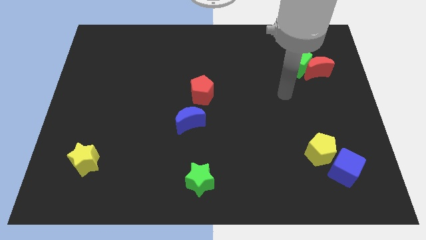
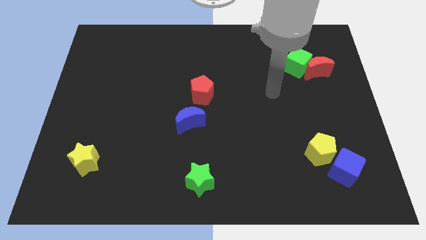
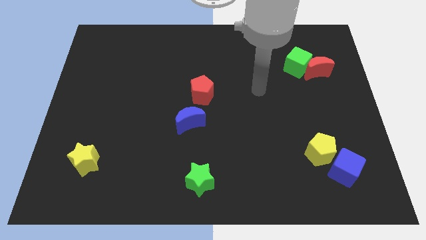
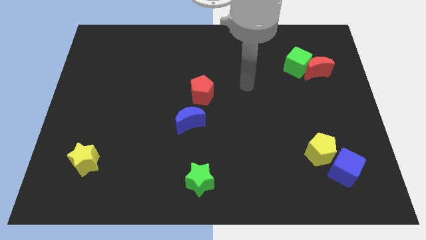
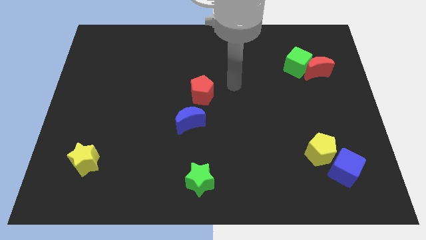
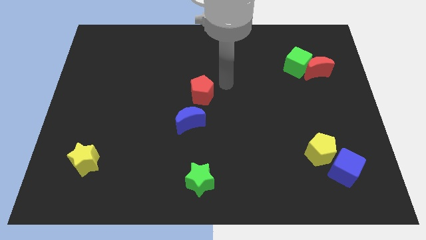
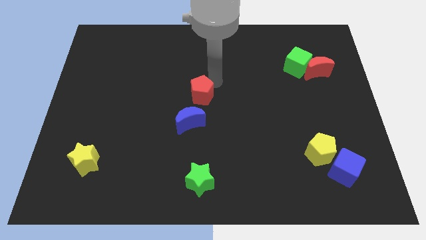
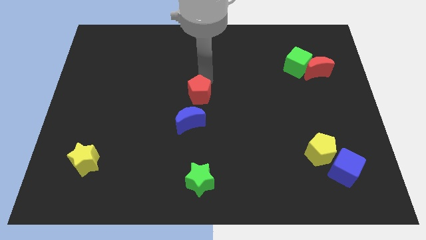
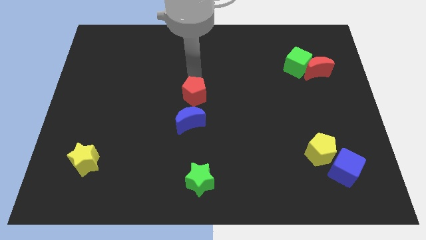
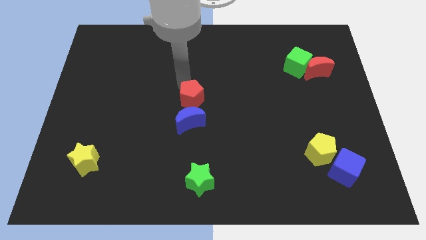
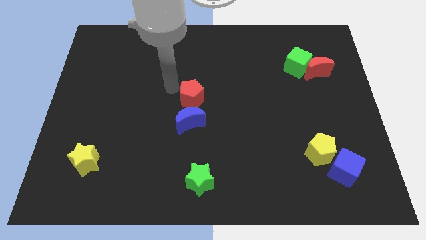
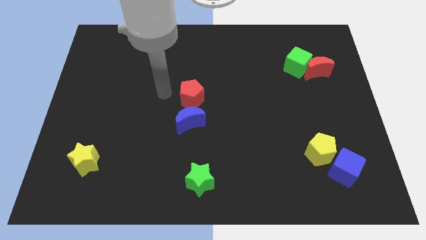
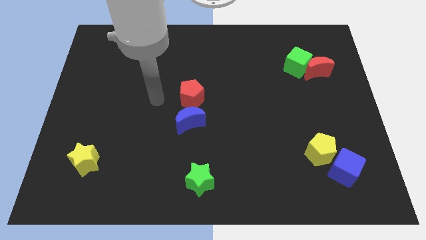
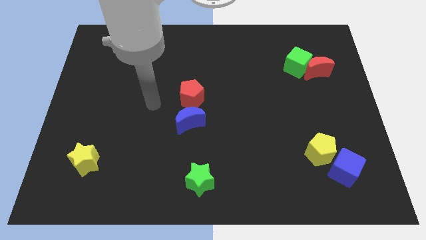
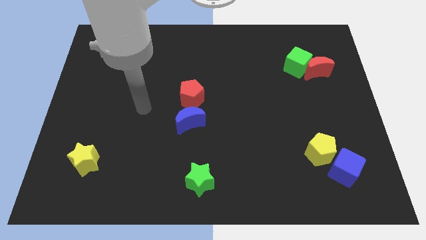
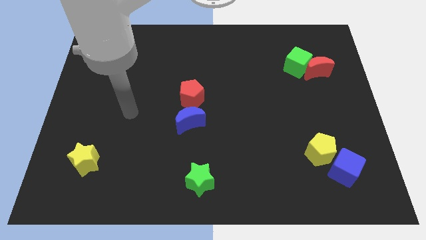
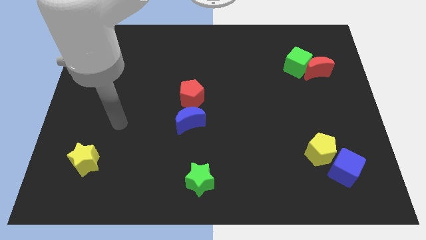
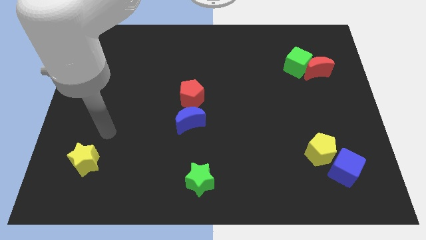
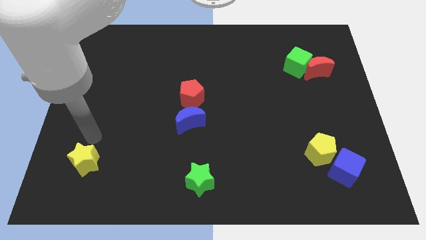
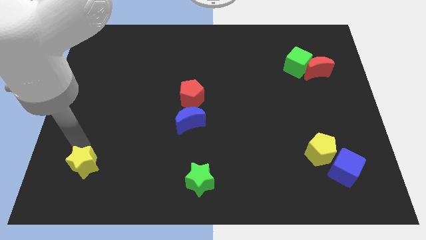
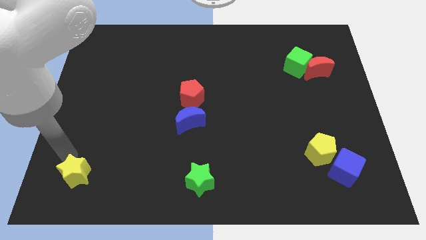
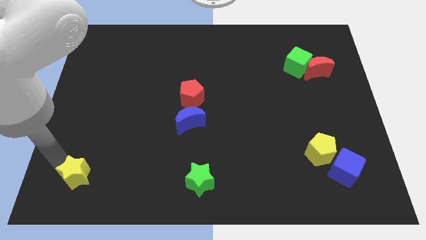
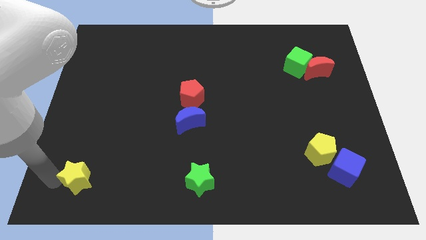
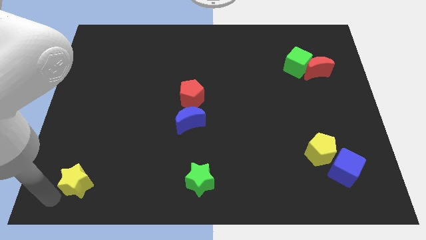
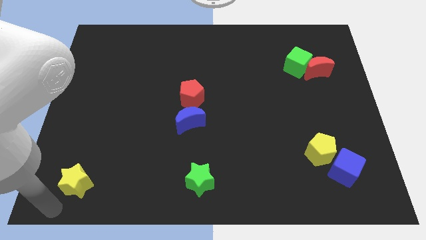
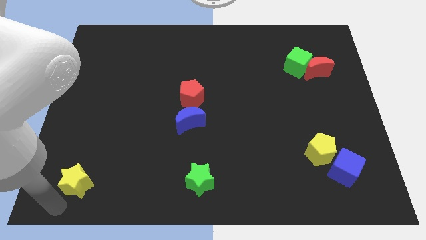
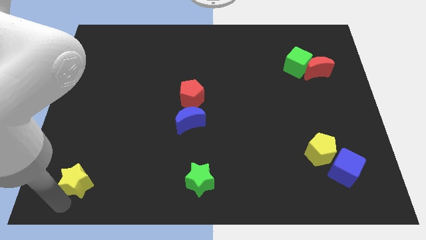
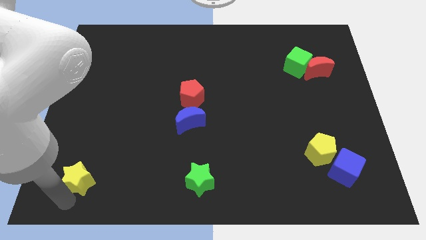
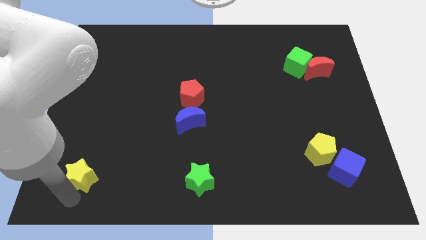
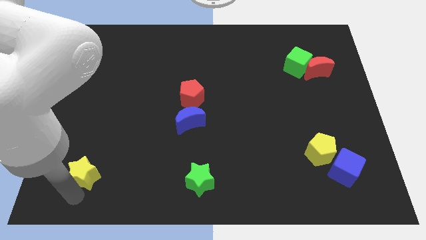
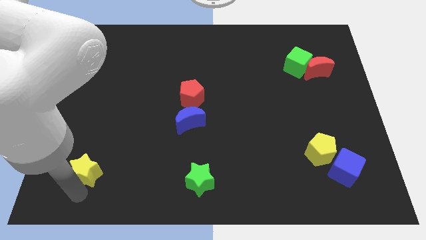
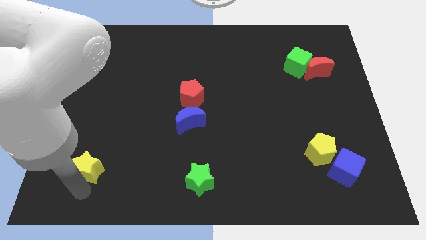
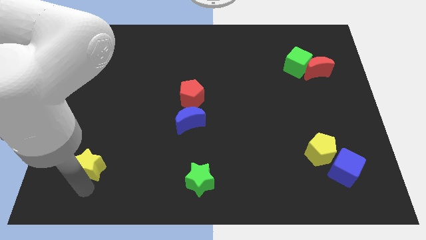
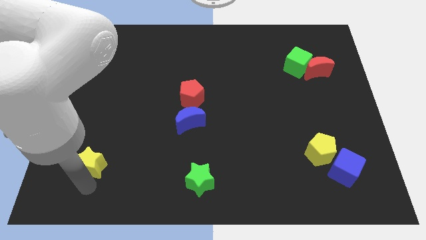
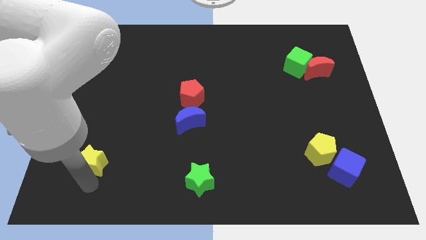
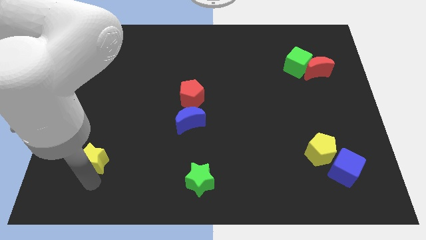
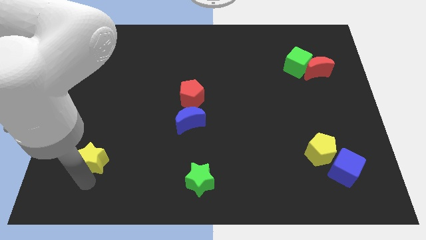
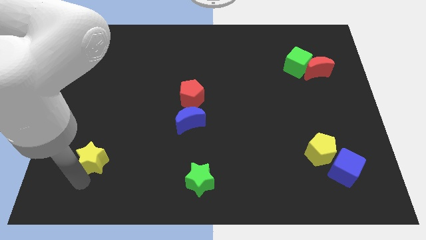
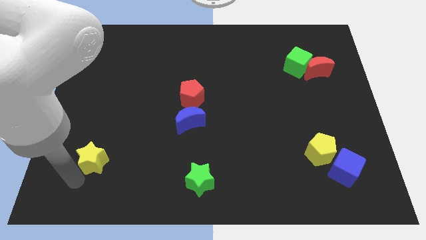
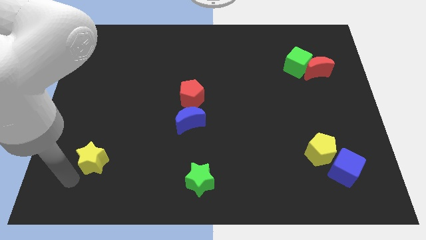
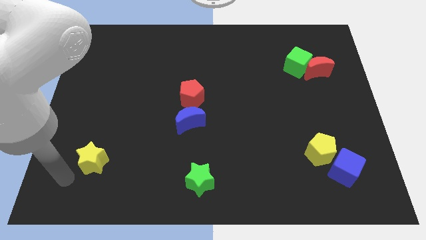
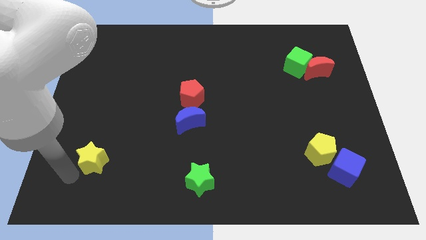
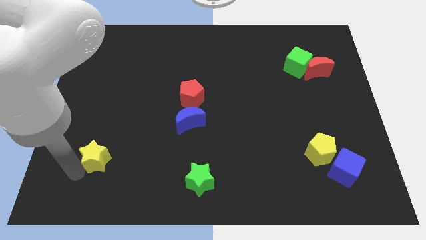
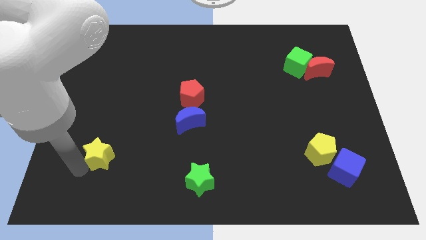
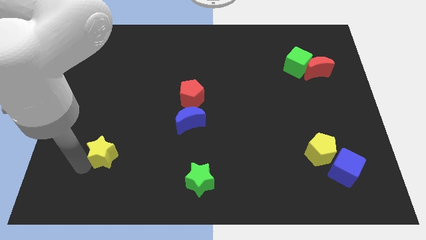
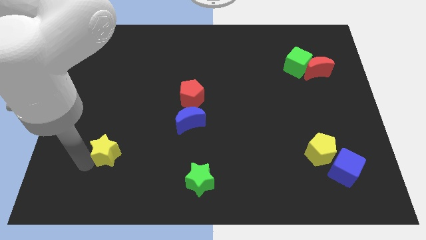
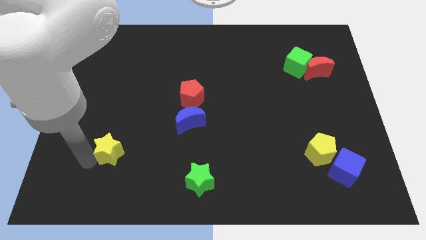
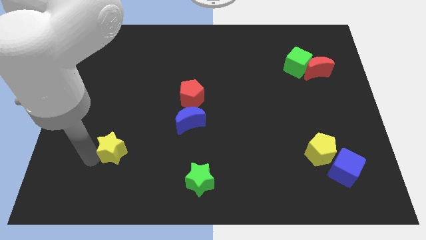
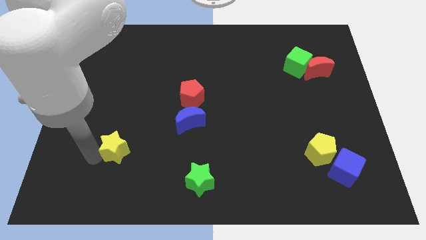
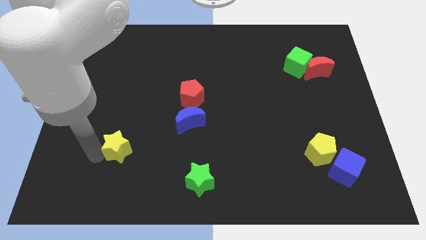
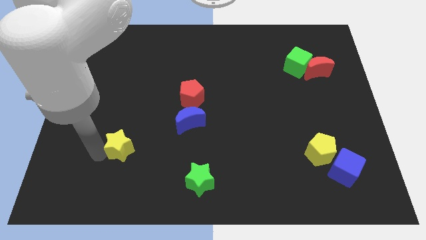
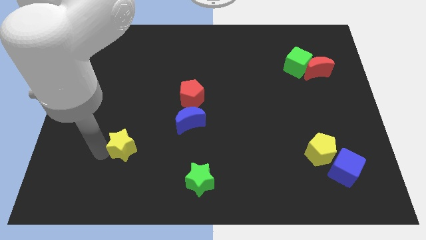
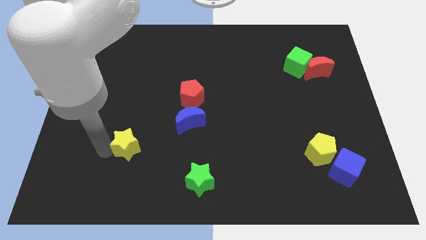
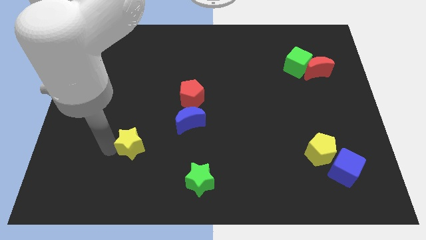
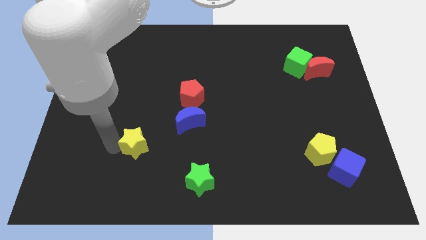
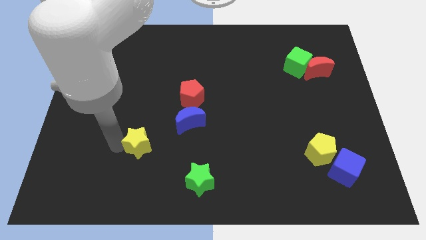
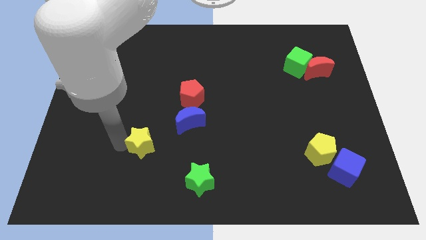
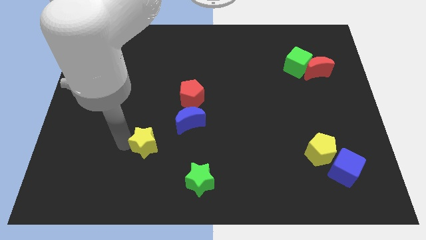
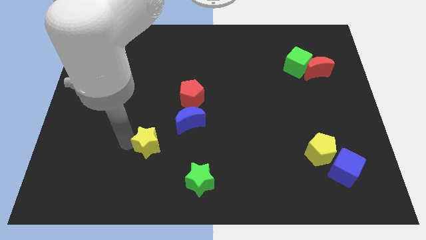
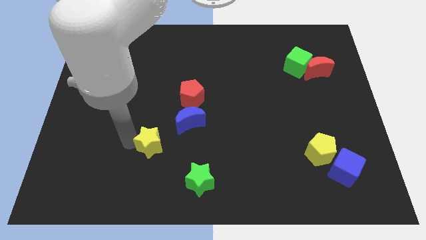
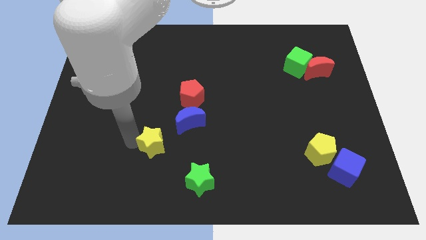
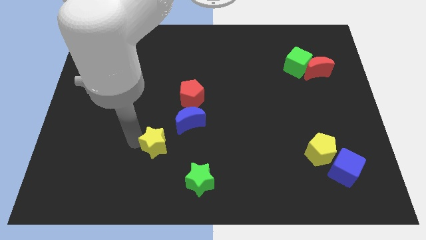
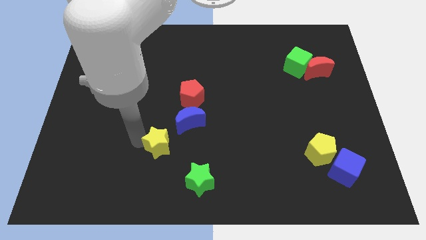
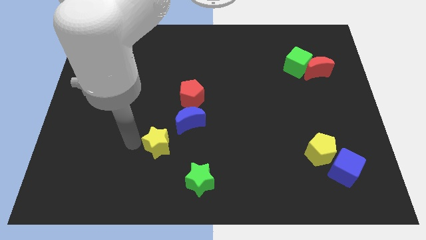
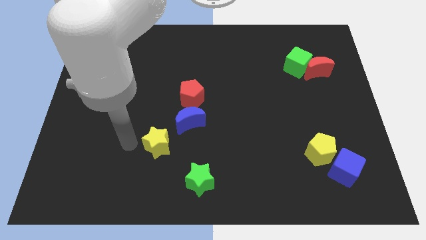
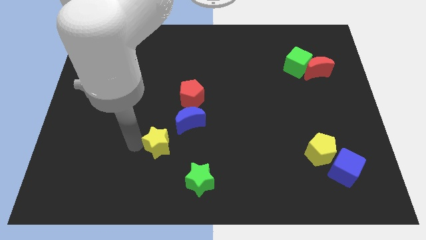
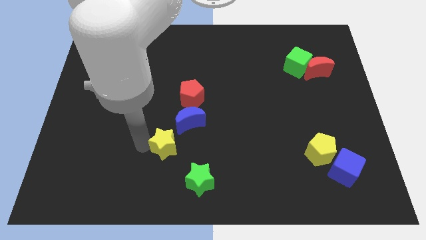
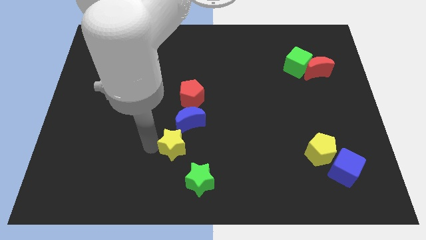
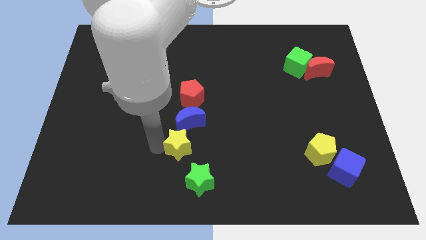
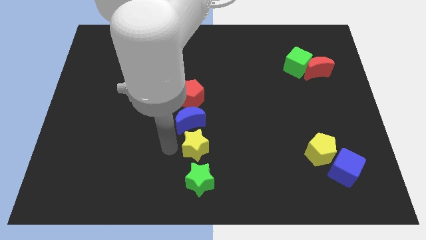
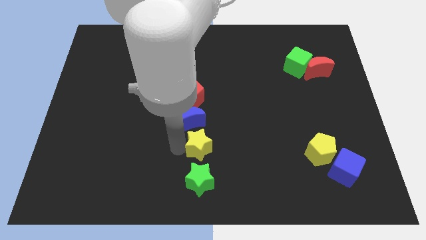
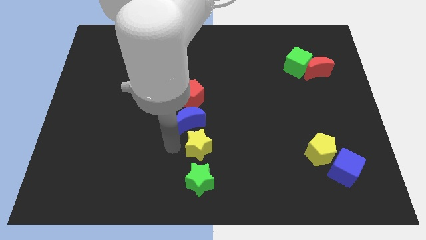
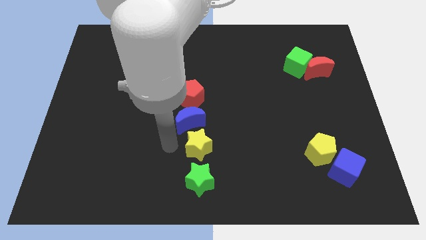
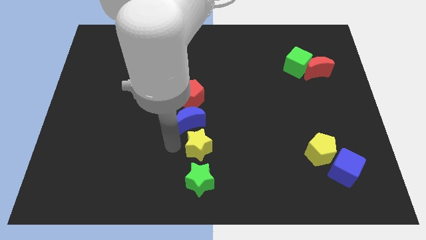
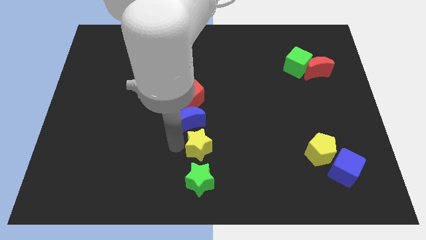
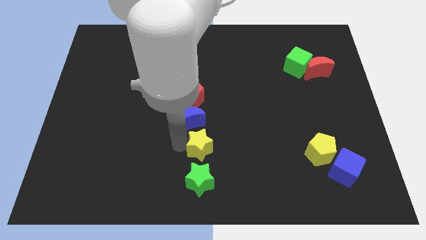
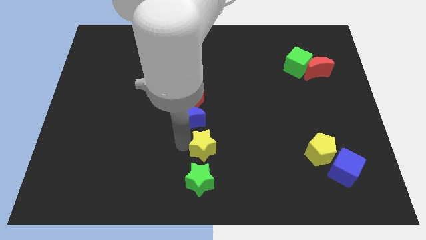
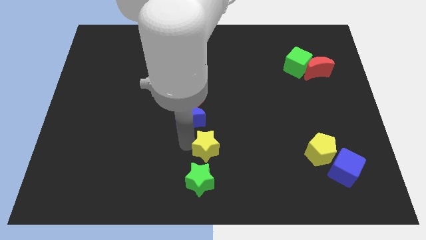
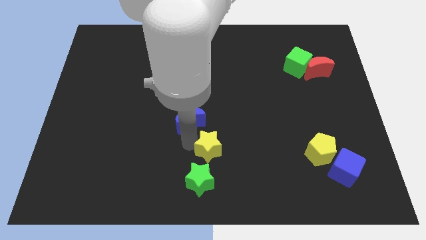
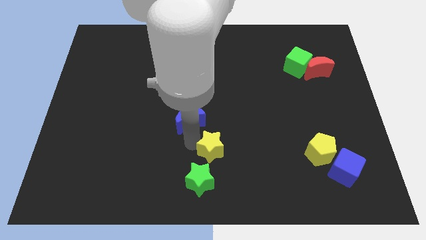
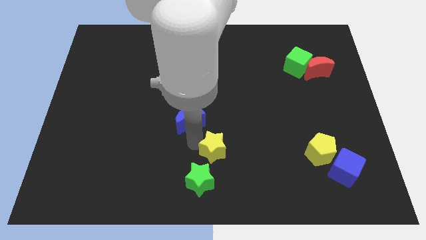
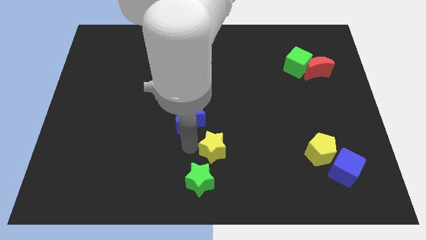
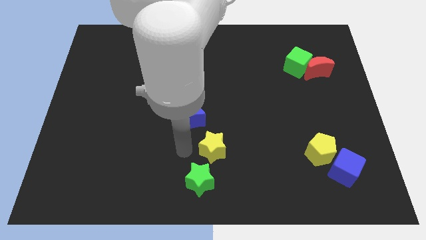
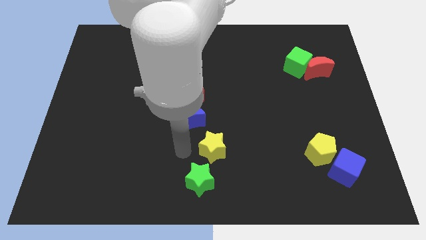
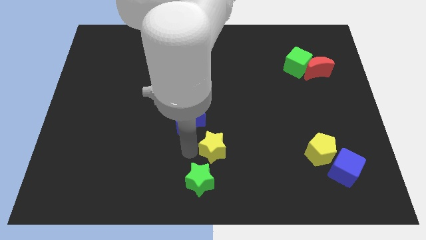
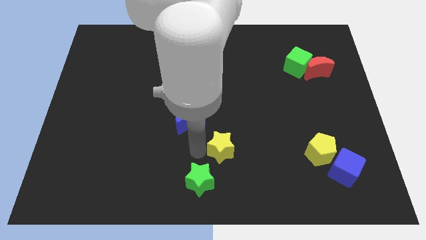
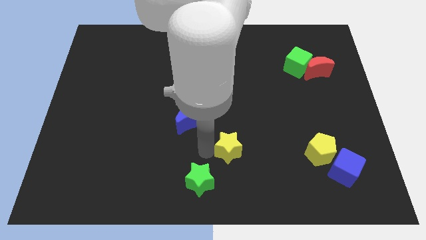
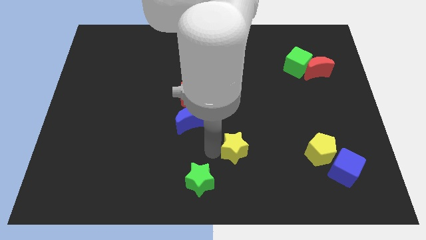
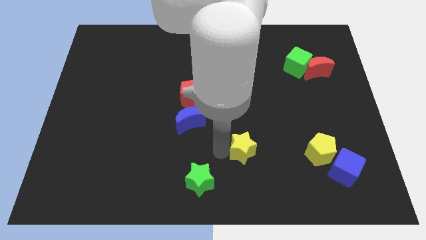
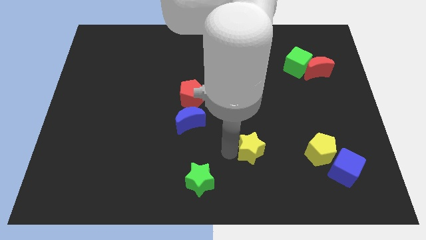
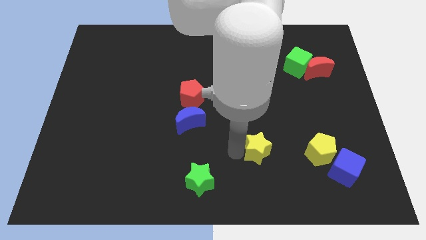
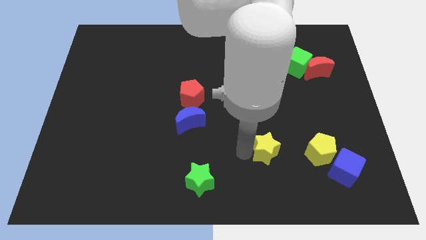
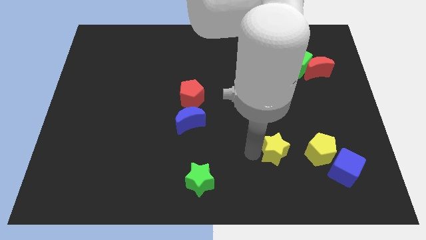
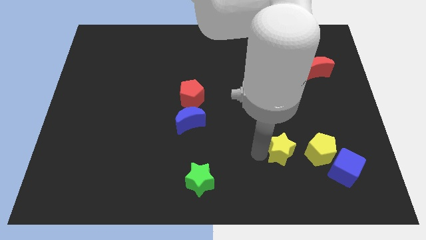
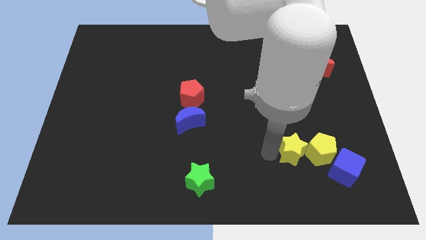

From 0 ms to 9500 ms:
slide the yellow star close to the yellow pentagon
